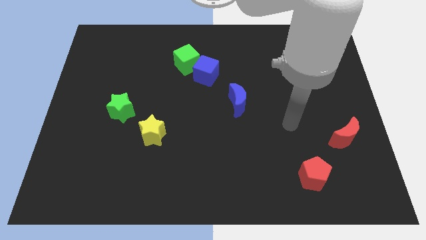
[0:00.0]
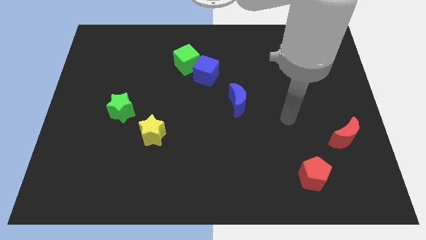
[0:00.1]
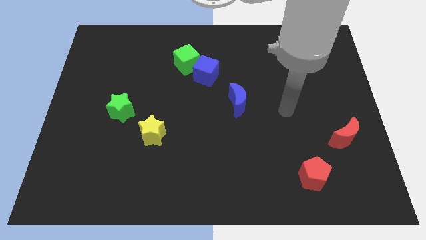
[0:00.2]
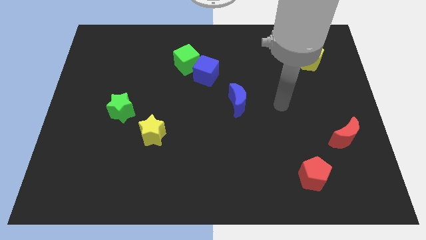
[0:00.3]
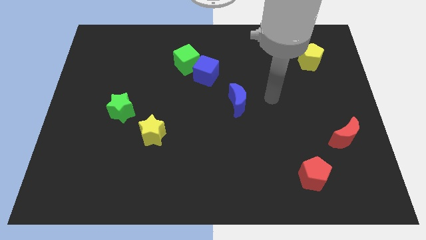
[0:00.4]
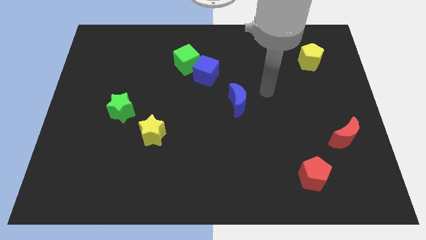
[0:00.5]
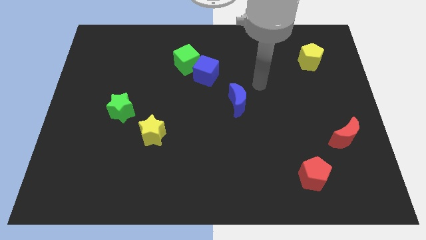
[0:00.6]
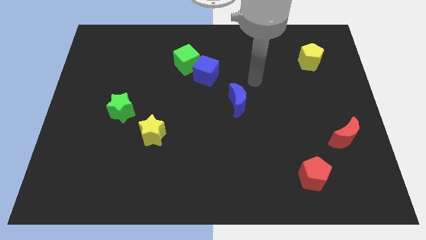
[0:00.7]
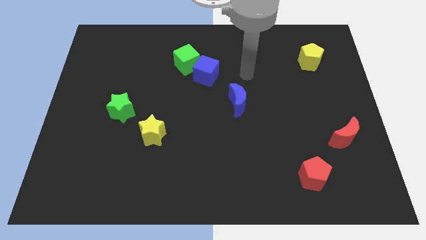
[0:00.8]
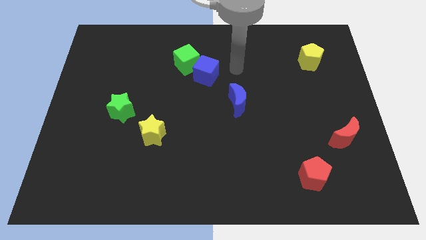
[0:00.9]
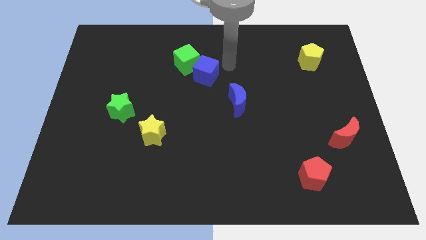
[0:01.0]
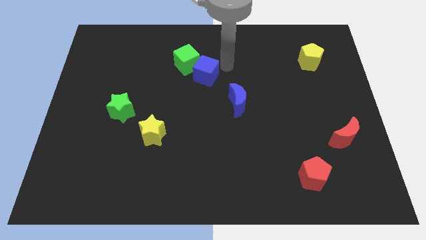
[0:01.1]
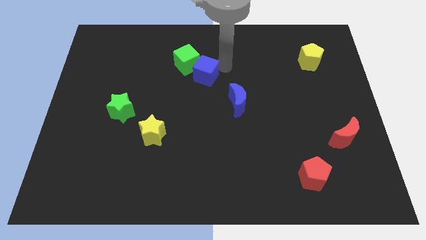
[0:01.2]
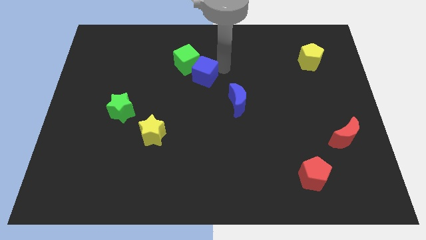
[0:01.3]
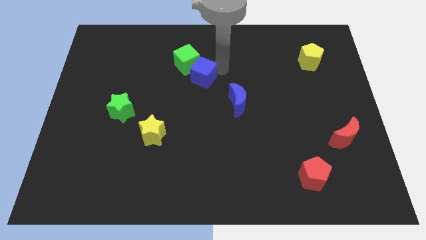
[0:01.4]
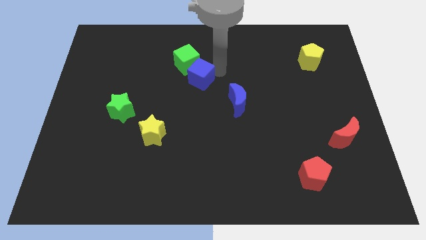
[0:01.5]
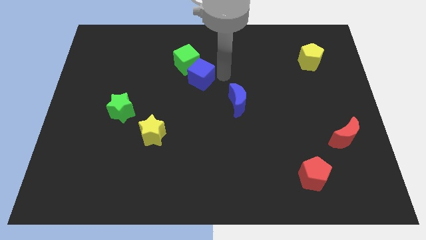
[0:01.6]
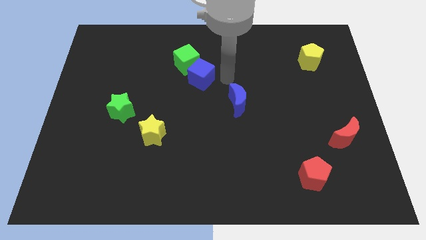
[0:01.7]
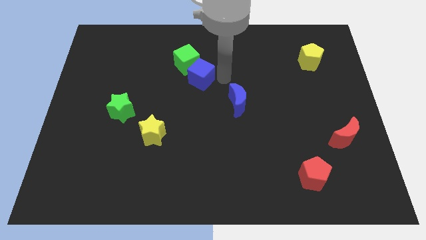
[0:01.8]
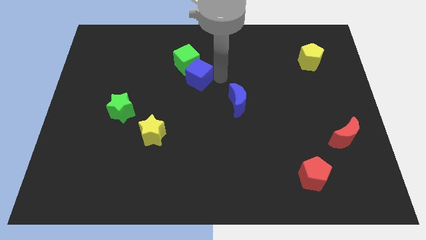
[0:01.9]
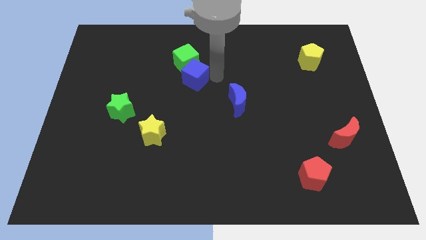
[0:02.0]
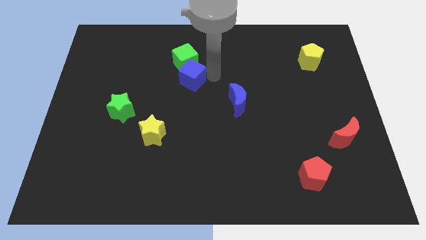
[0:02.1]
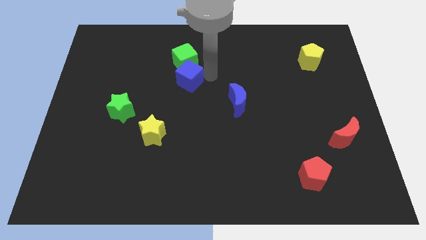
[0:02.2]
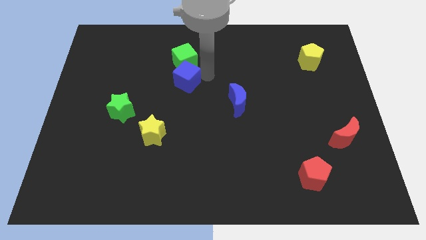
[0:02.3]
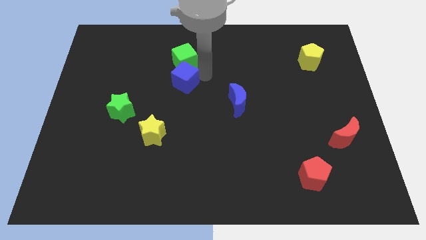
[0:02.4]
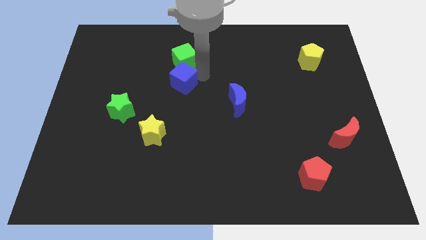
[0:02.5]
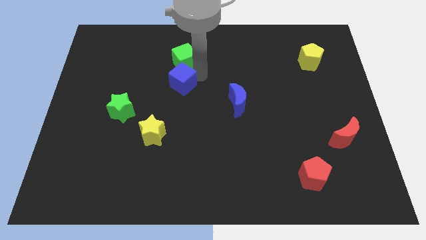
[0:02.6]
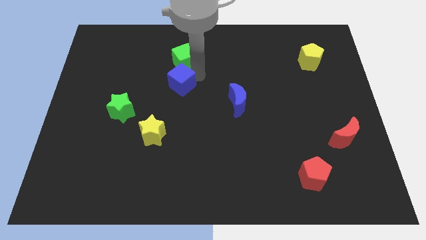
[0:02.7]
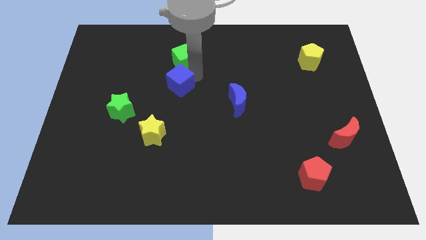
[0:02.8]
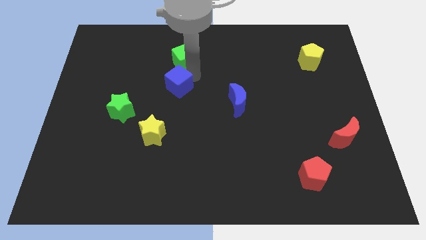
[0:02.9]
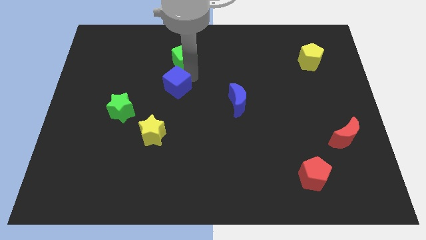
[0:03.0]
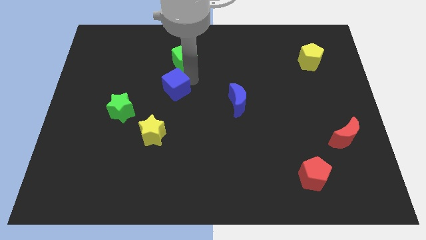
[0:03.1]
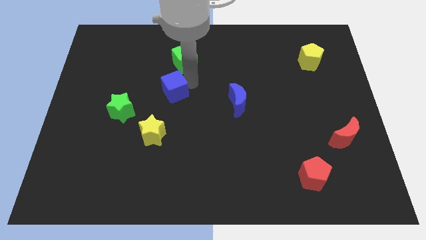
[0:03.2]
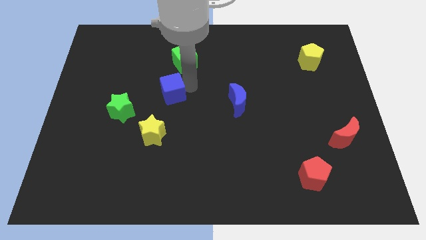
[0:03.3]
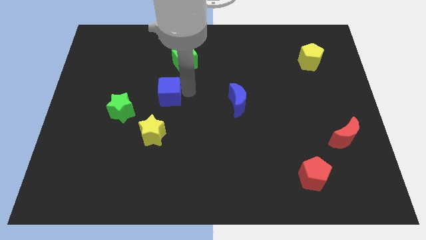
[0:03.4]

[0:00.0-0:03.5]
slide the blue cube to the left a little bit

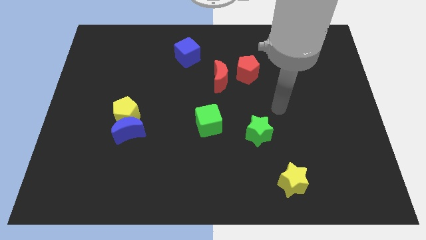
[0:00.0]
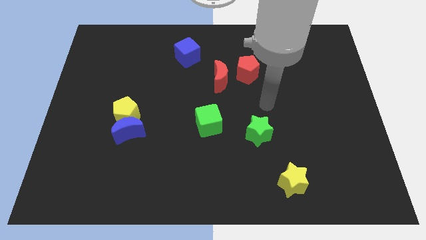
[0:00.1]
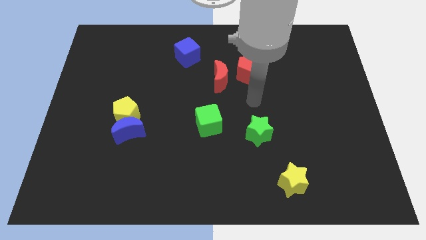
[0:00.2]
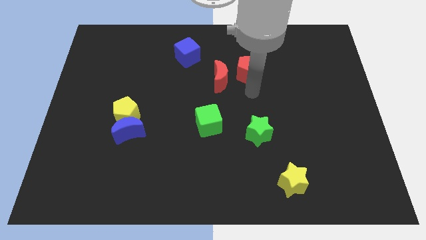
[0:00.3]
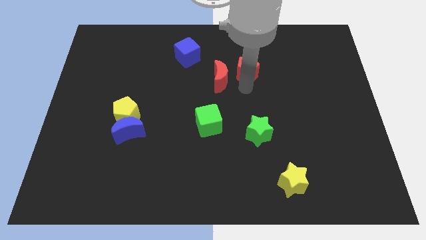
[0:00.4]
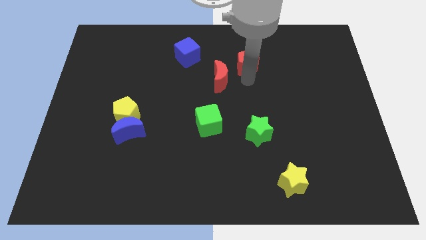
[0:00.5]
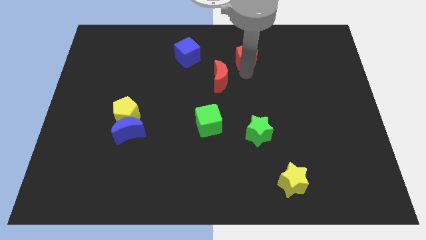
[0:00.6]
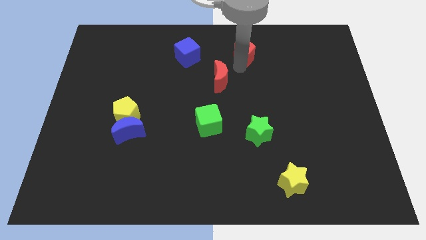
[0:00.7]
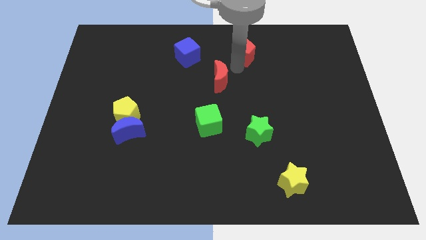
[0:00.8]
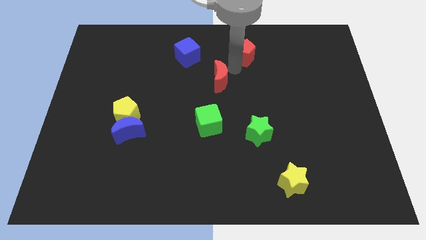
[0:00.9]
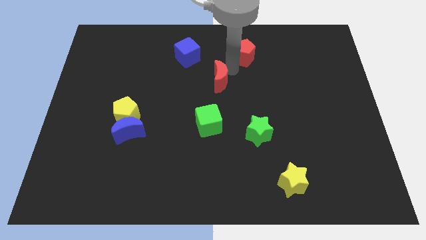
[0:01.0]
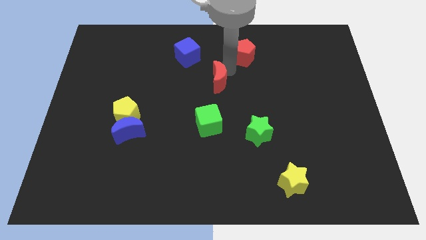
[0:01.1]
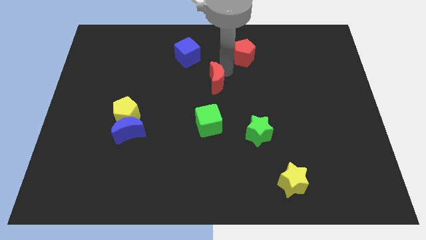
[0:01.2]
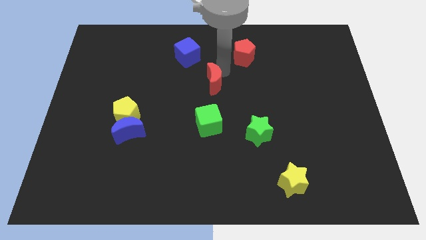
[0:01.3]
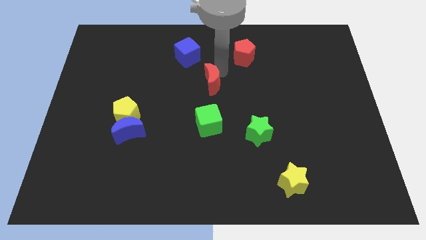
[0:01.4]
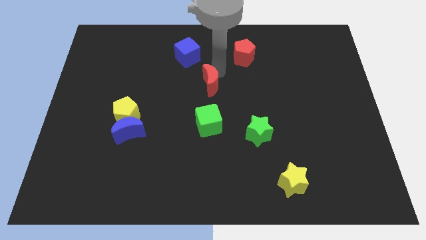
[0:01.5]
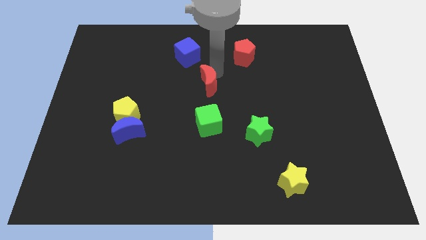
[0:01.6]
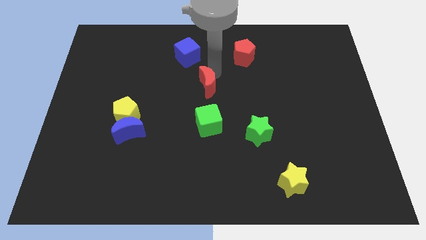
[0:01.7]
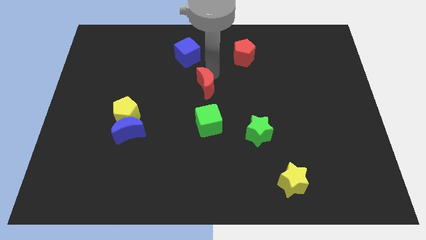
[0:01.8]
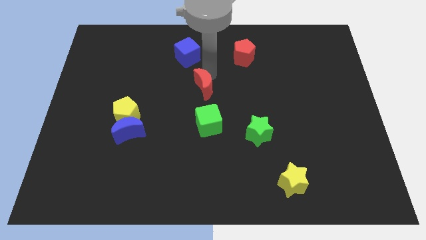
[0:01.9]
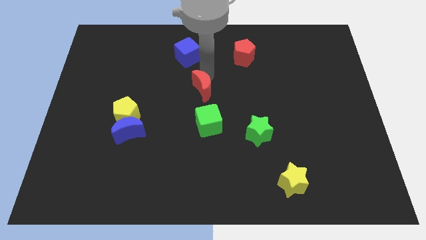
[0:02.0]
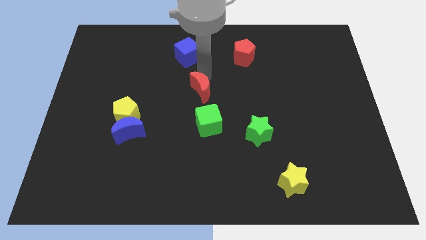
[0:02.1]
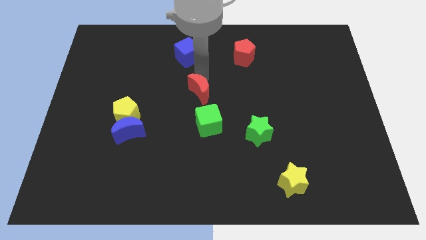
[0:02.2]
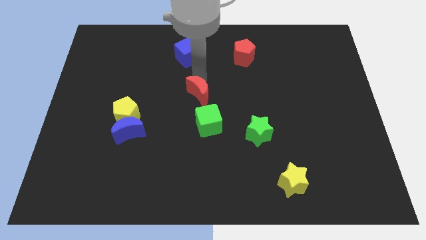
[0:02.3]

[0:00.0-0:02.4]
push the red moon diagonally downwards and left a little bit

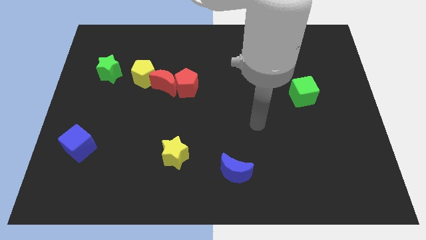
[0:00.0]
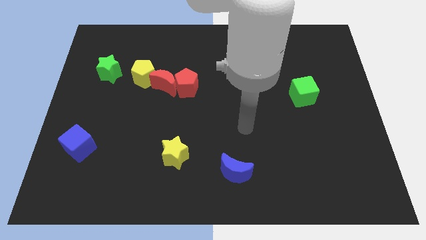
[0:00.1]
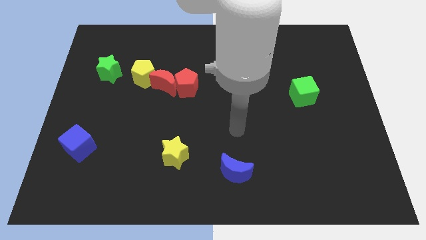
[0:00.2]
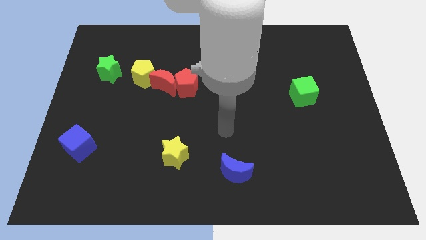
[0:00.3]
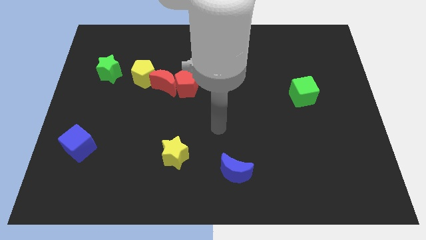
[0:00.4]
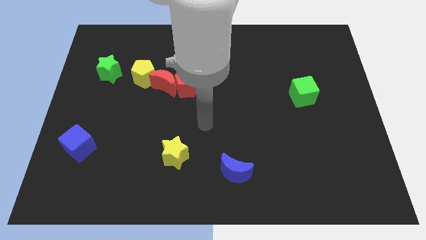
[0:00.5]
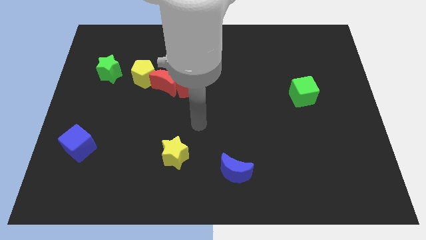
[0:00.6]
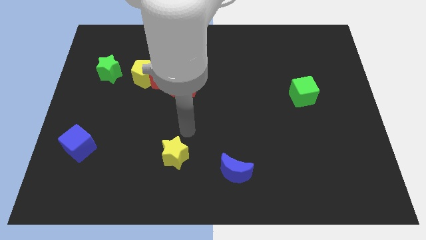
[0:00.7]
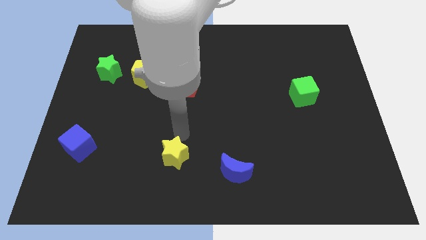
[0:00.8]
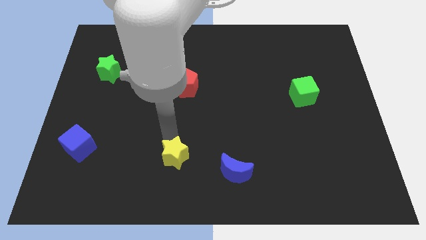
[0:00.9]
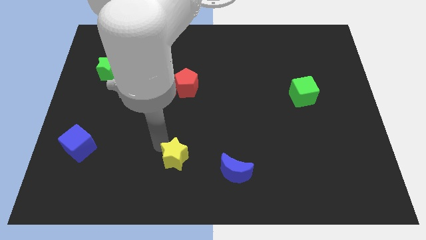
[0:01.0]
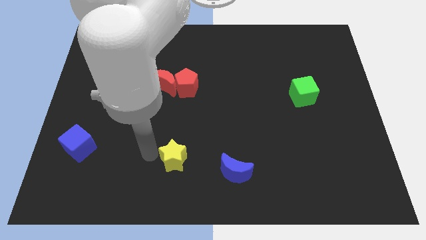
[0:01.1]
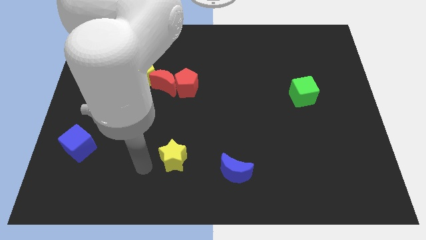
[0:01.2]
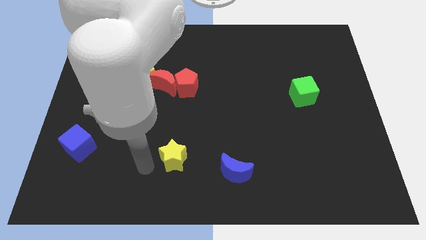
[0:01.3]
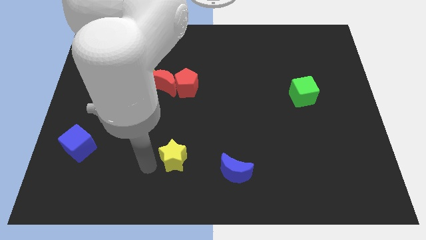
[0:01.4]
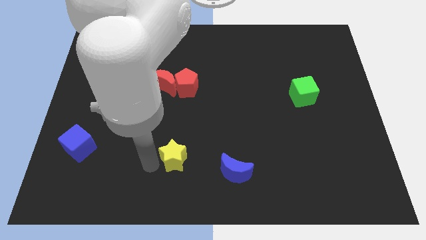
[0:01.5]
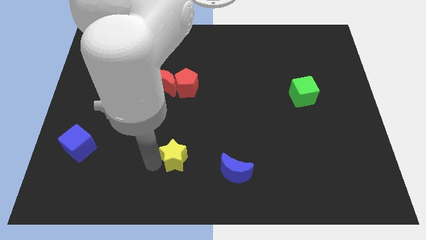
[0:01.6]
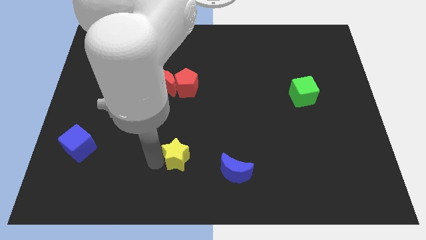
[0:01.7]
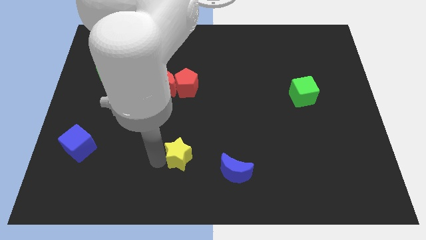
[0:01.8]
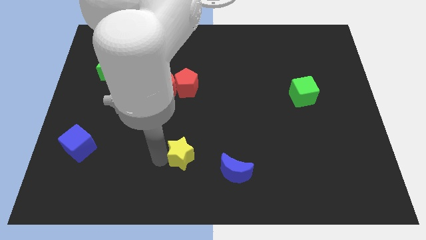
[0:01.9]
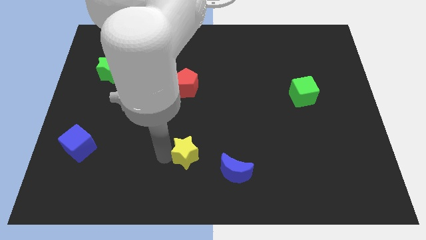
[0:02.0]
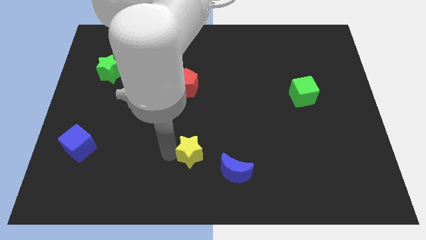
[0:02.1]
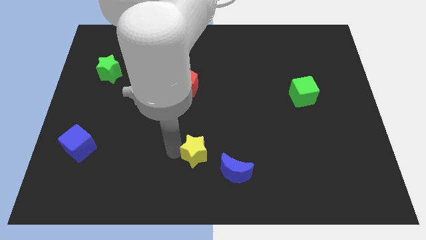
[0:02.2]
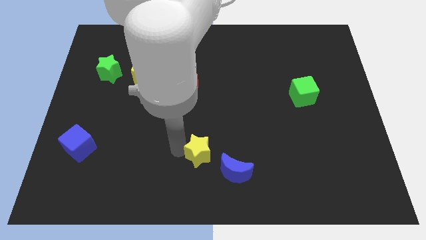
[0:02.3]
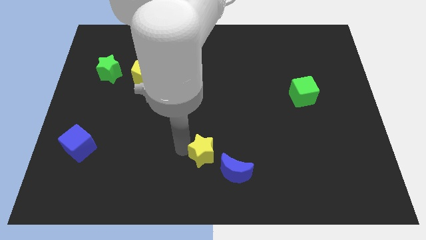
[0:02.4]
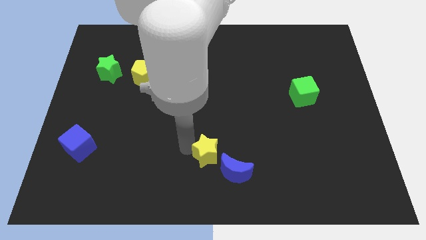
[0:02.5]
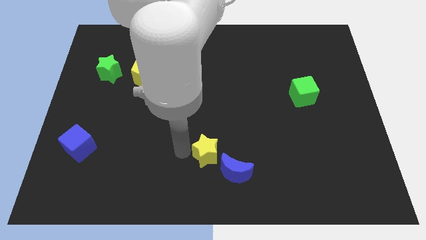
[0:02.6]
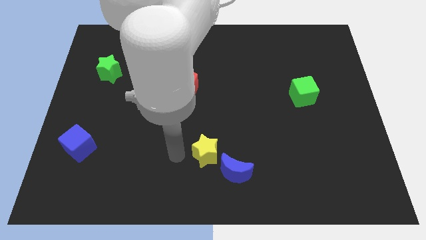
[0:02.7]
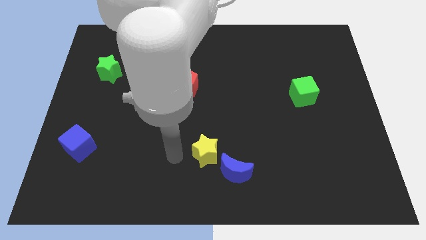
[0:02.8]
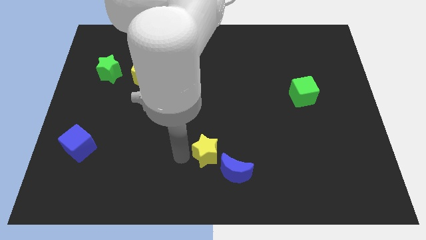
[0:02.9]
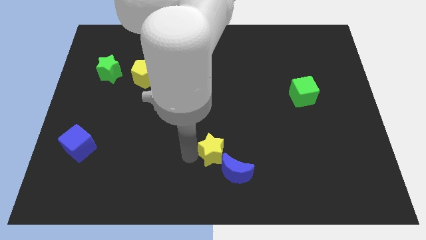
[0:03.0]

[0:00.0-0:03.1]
slightly push the yellow star right
